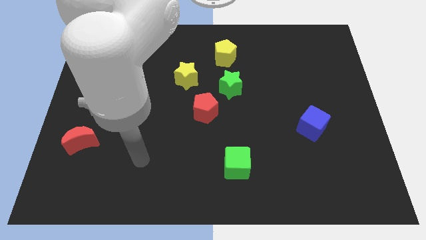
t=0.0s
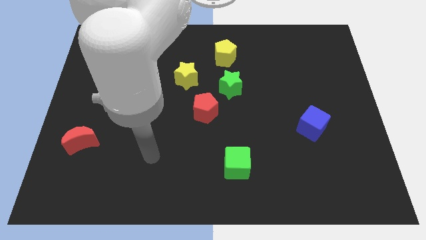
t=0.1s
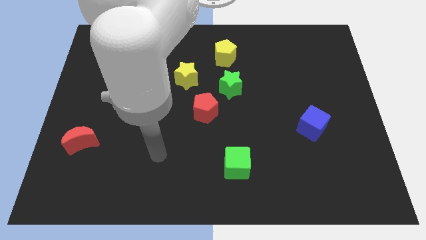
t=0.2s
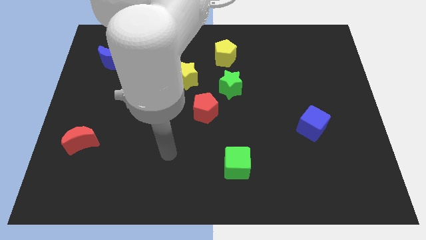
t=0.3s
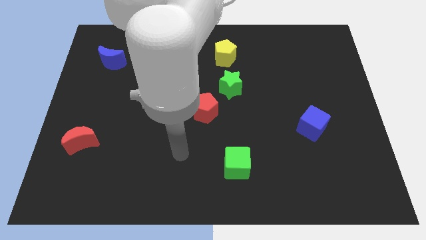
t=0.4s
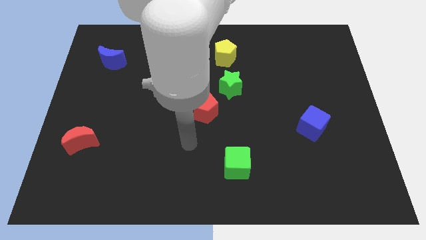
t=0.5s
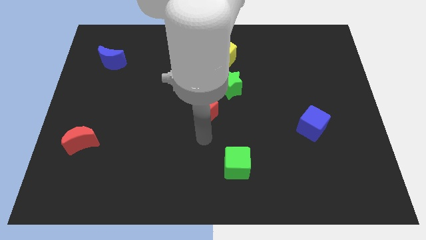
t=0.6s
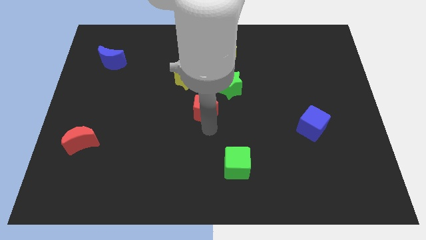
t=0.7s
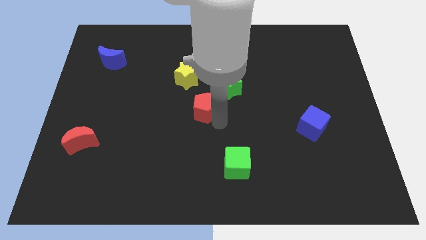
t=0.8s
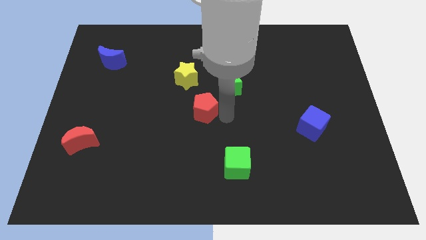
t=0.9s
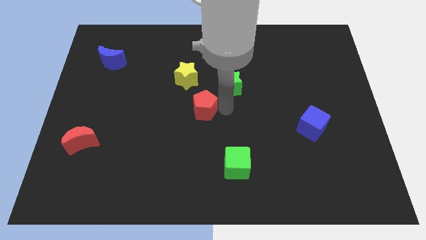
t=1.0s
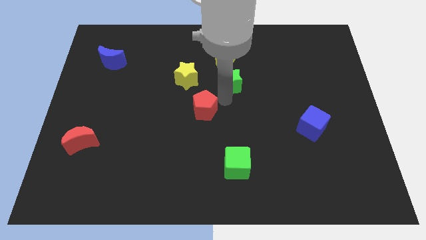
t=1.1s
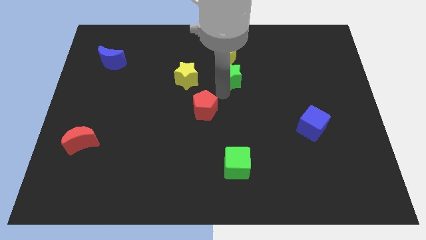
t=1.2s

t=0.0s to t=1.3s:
separate the red pentagon from the green star

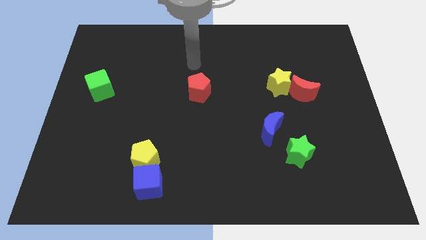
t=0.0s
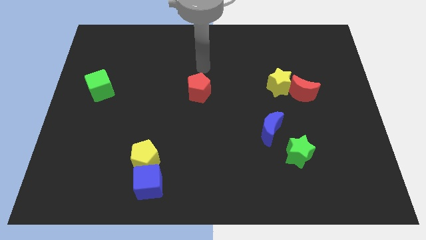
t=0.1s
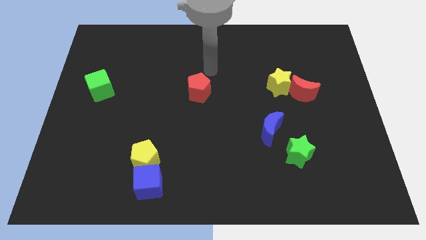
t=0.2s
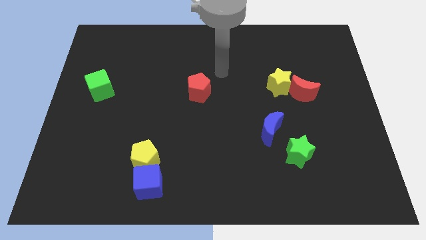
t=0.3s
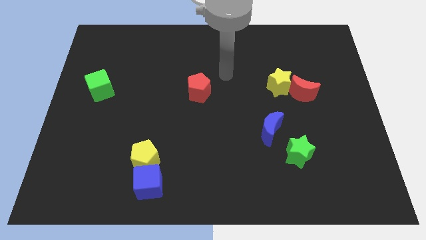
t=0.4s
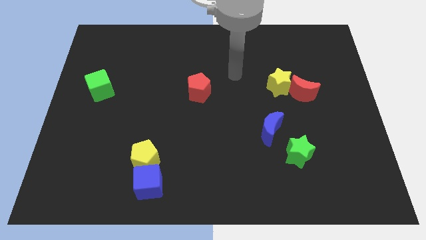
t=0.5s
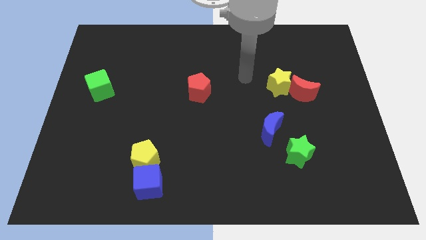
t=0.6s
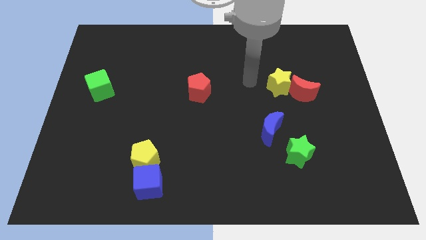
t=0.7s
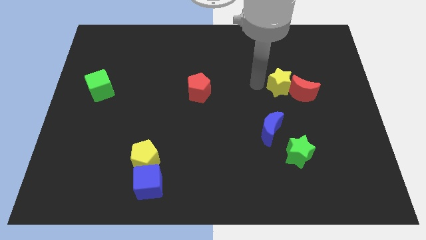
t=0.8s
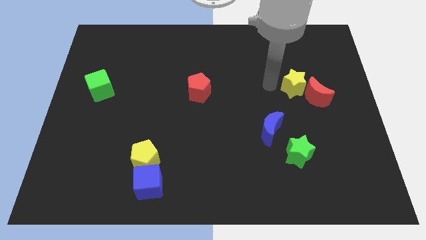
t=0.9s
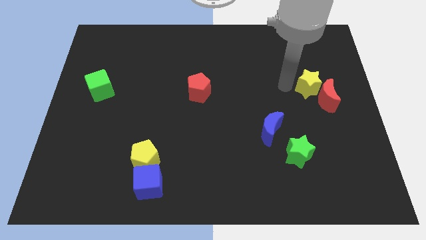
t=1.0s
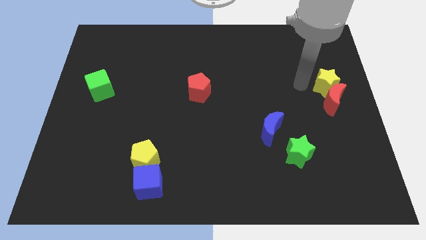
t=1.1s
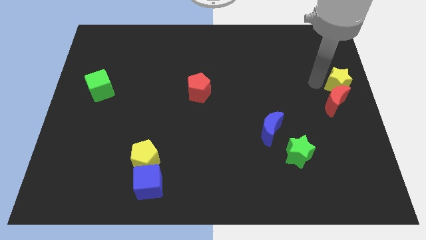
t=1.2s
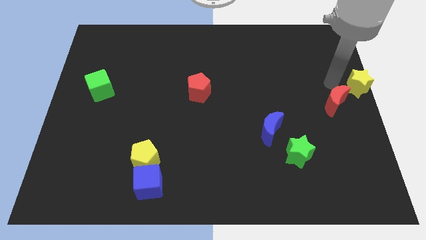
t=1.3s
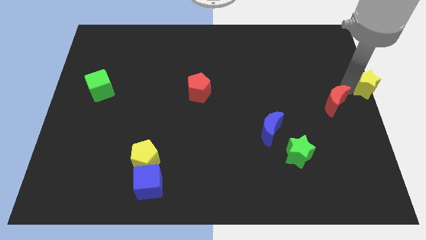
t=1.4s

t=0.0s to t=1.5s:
pull the red moon apart from the yellow star

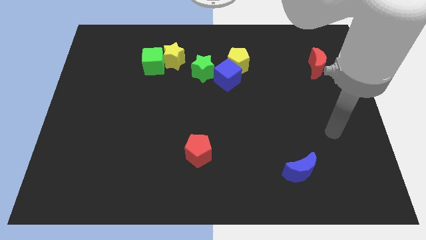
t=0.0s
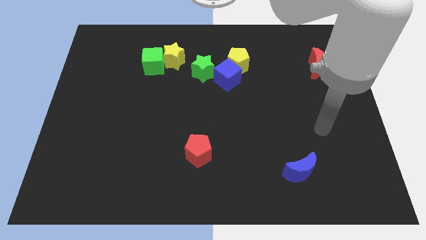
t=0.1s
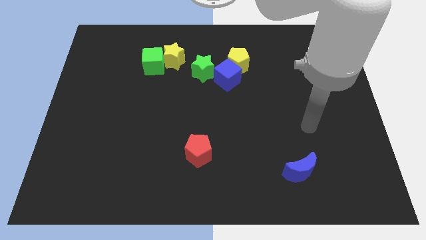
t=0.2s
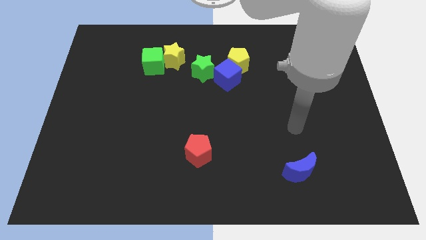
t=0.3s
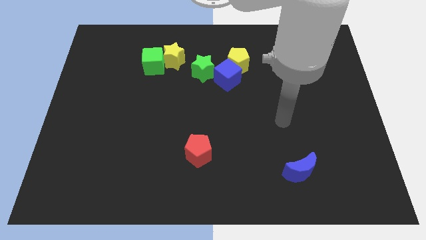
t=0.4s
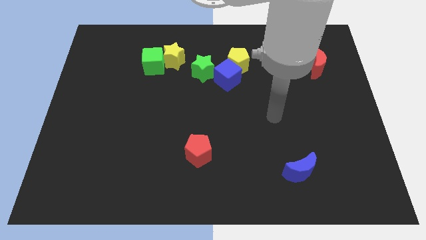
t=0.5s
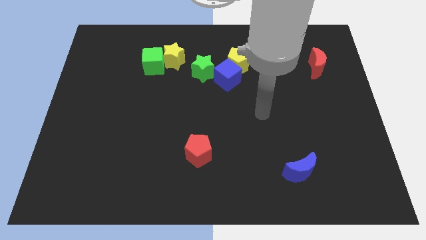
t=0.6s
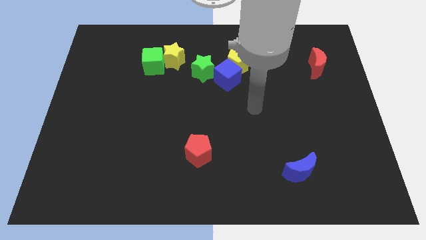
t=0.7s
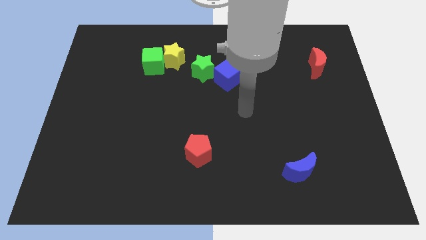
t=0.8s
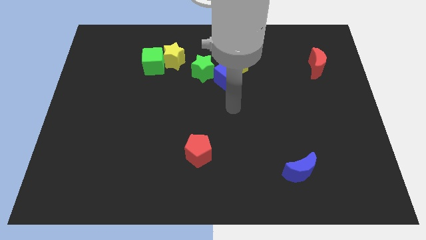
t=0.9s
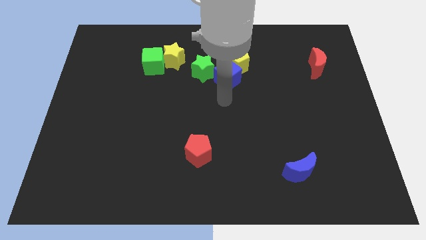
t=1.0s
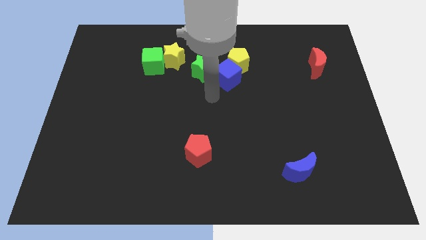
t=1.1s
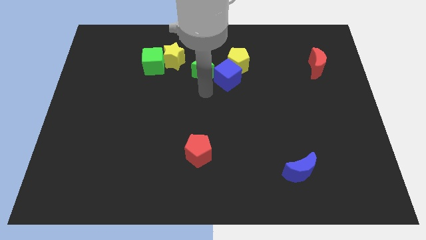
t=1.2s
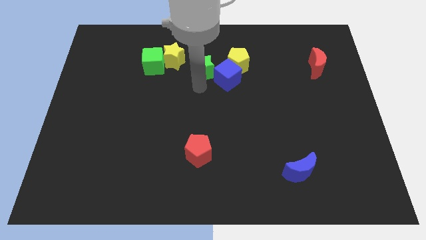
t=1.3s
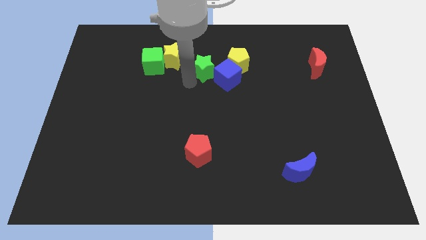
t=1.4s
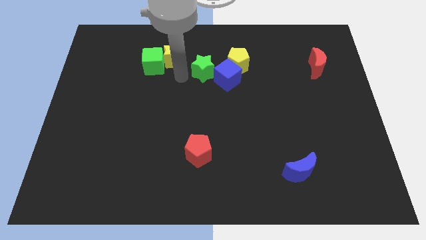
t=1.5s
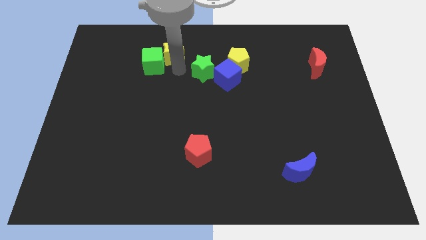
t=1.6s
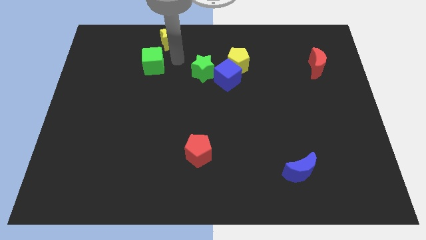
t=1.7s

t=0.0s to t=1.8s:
pull the green cube apart from the yellow star

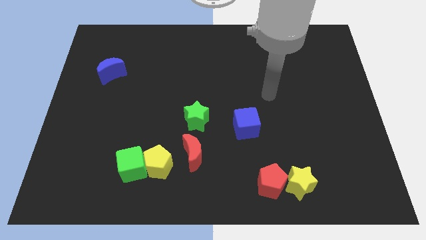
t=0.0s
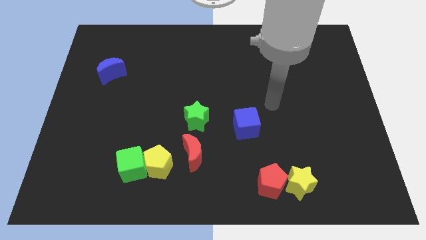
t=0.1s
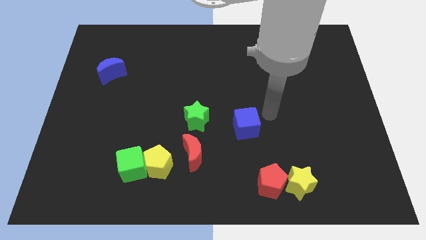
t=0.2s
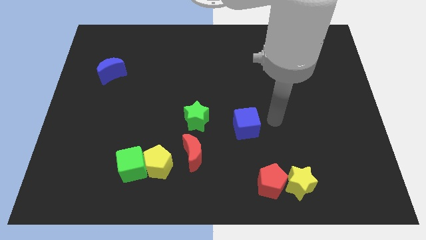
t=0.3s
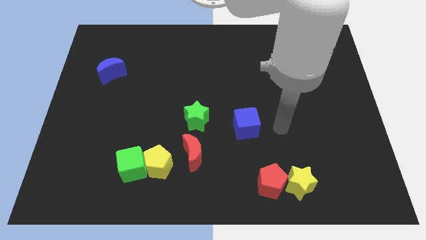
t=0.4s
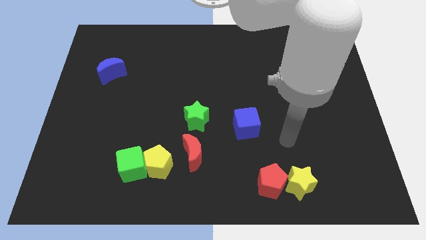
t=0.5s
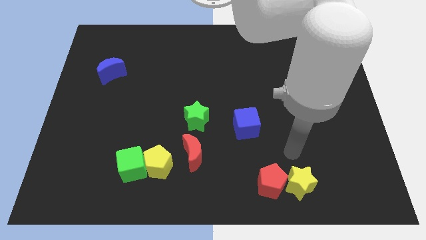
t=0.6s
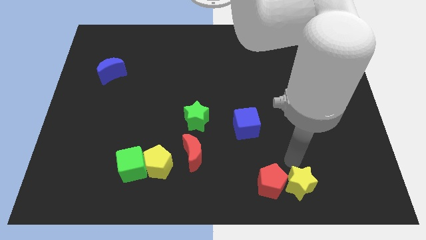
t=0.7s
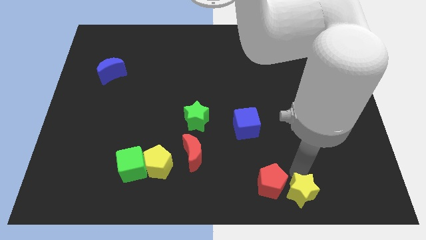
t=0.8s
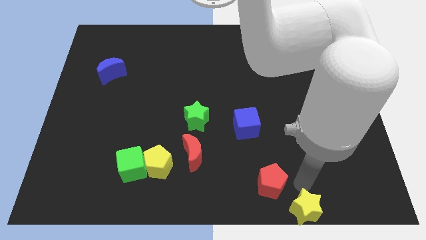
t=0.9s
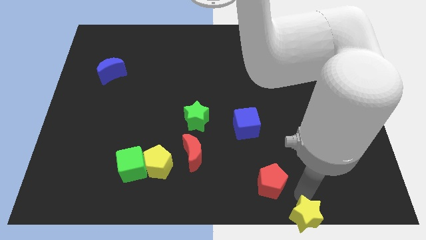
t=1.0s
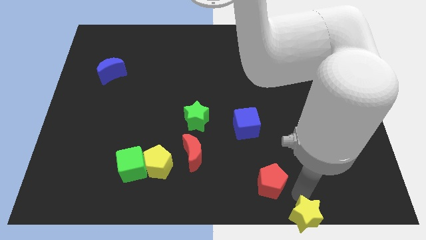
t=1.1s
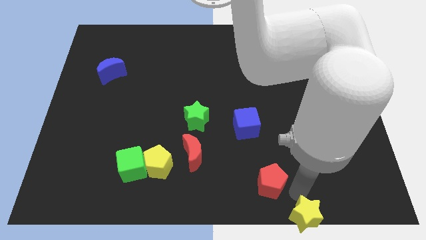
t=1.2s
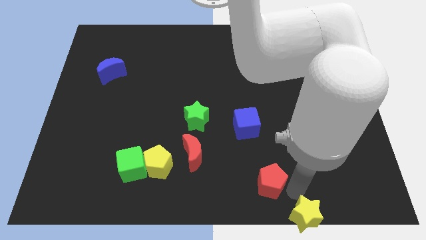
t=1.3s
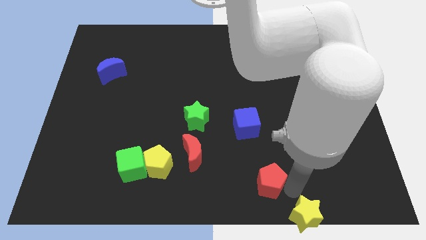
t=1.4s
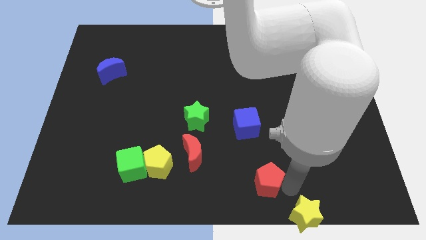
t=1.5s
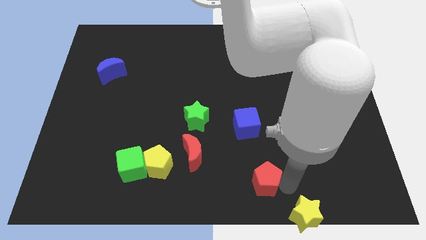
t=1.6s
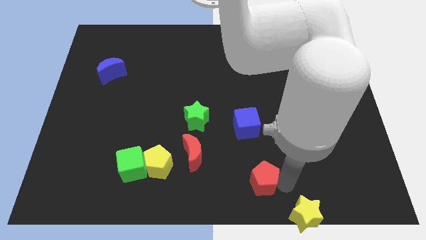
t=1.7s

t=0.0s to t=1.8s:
move the red pentagon away from the yellow star

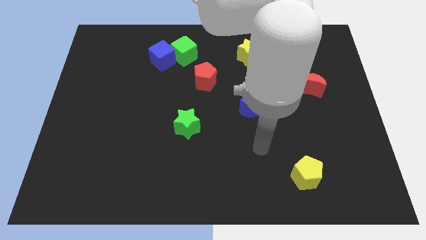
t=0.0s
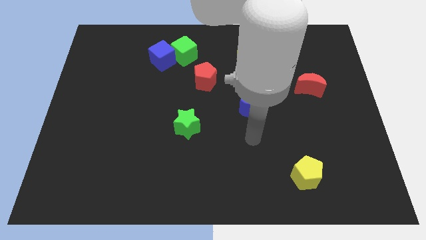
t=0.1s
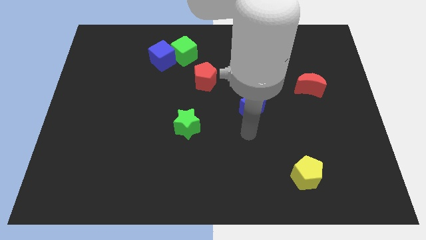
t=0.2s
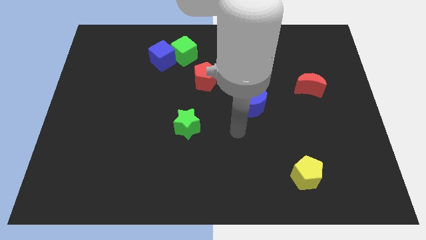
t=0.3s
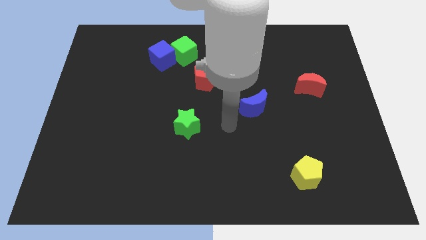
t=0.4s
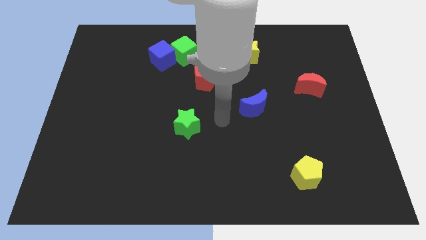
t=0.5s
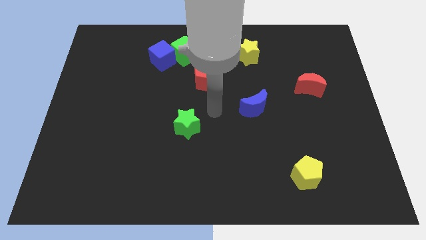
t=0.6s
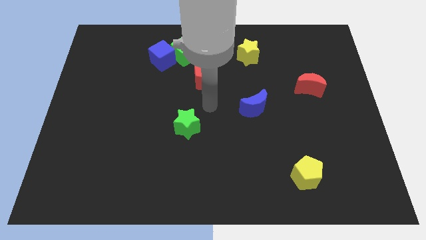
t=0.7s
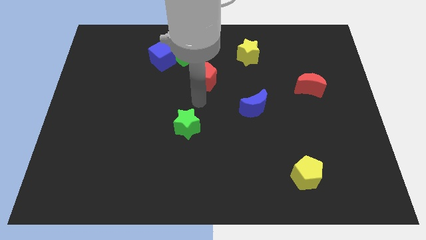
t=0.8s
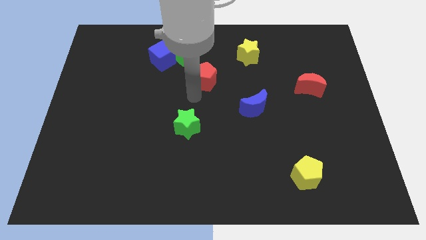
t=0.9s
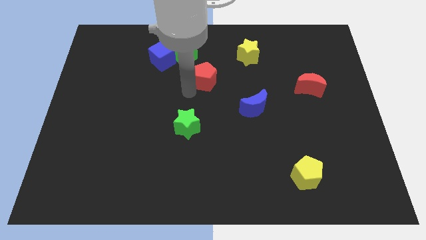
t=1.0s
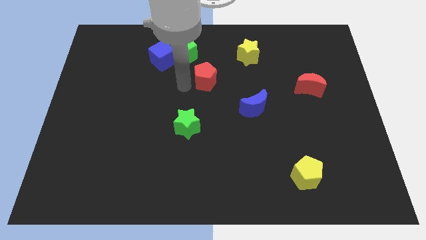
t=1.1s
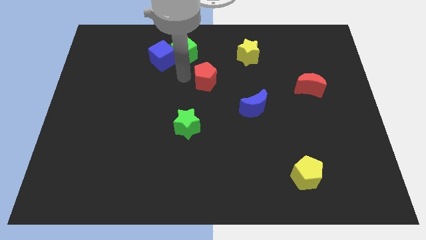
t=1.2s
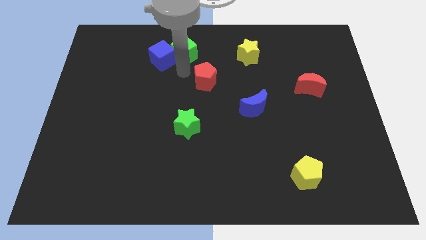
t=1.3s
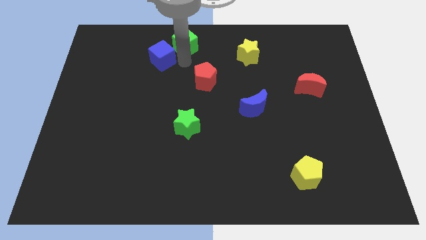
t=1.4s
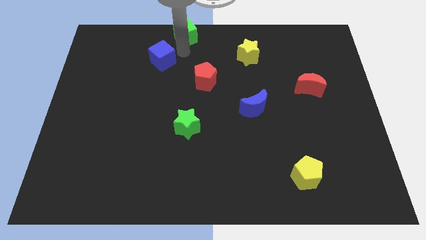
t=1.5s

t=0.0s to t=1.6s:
move the blue cube away from the green cube

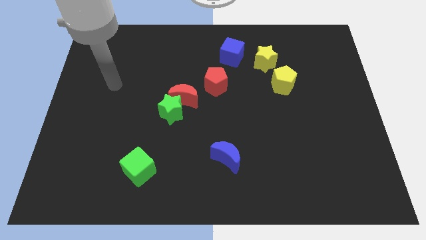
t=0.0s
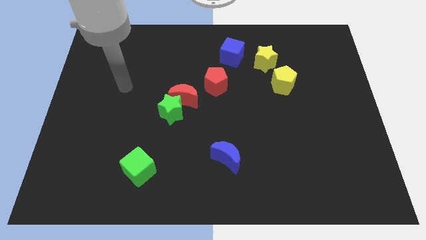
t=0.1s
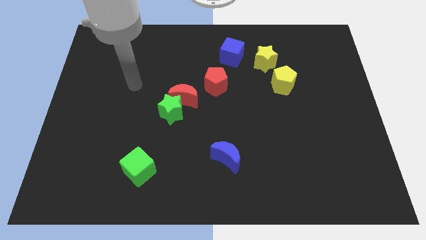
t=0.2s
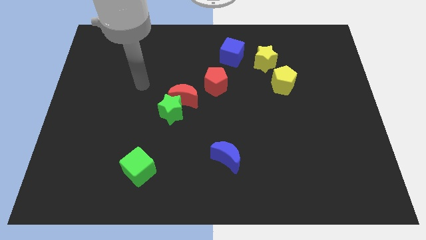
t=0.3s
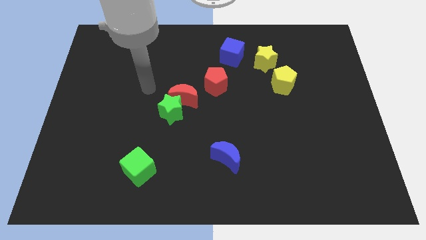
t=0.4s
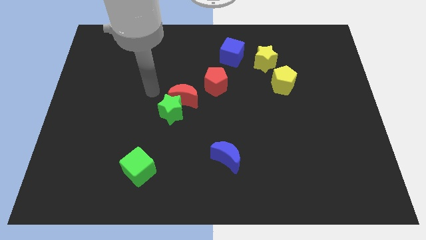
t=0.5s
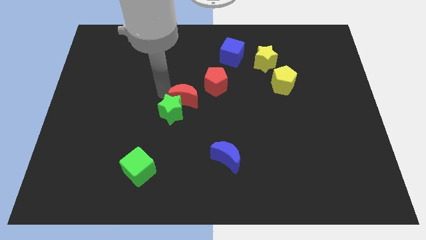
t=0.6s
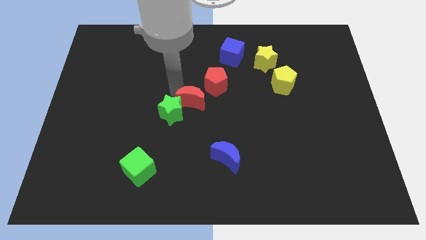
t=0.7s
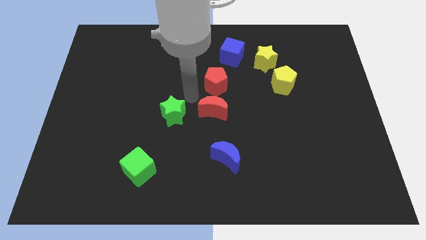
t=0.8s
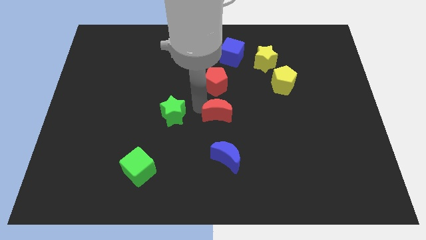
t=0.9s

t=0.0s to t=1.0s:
pull the green star apart from the red moon

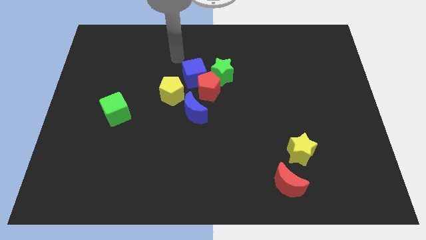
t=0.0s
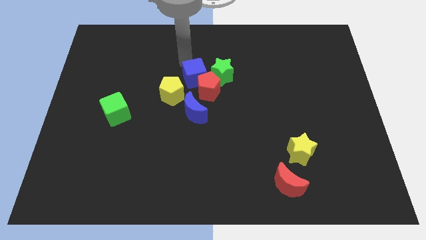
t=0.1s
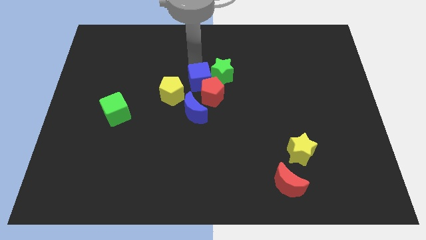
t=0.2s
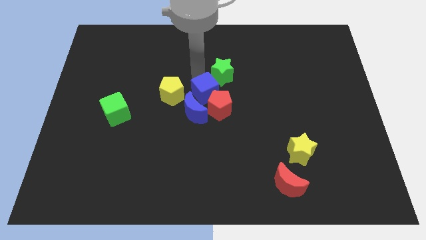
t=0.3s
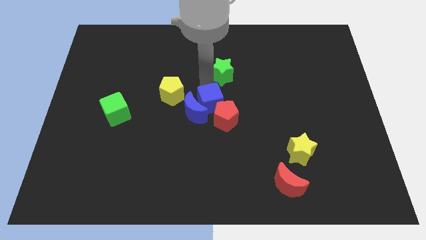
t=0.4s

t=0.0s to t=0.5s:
pull the green star apart from the red pentagon and blue cube
